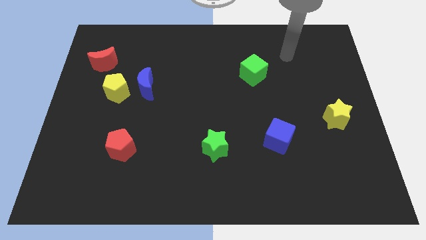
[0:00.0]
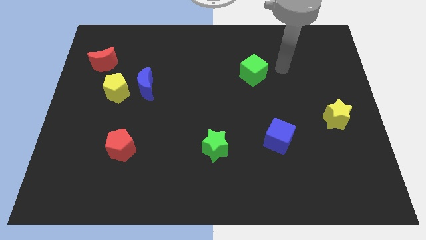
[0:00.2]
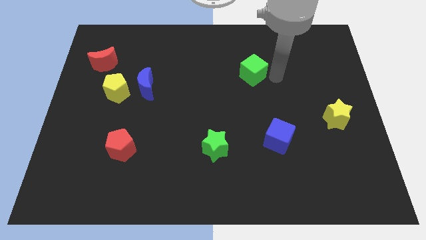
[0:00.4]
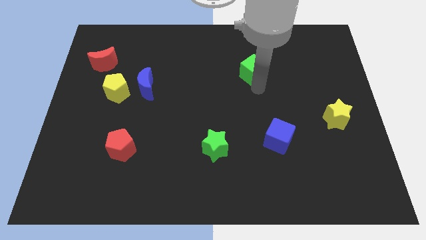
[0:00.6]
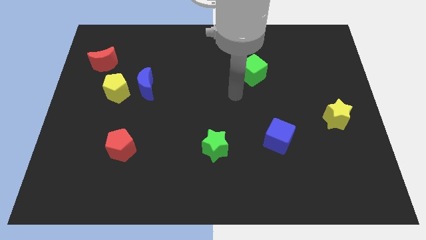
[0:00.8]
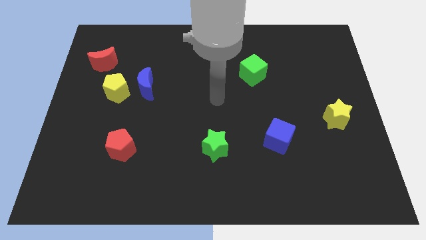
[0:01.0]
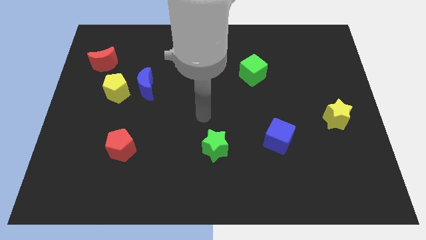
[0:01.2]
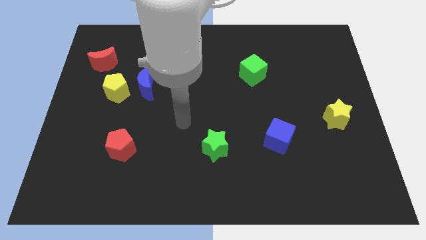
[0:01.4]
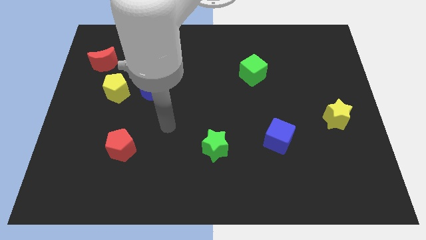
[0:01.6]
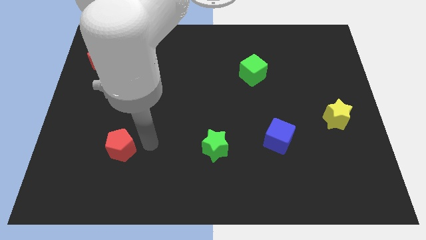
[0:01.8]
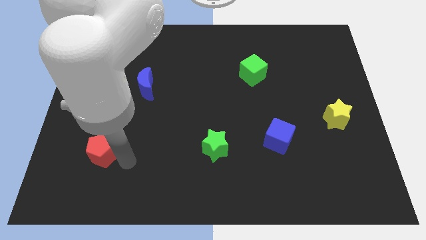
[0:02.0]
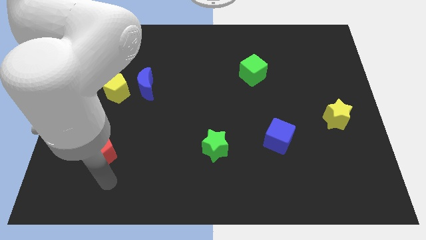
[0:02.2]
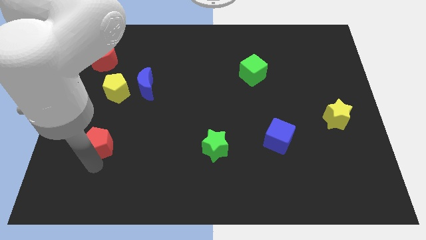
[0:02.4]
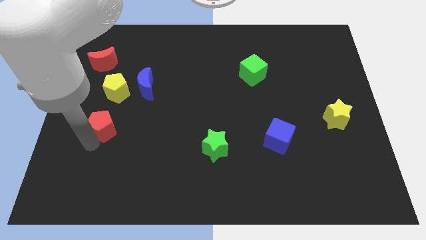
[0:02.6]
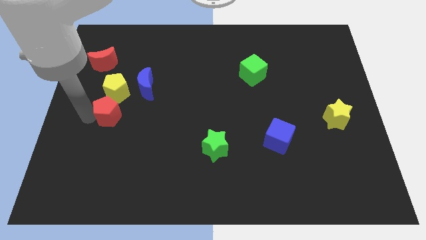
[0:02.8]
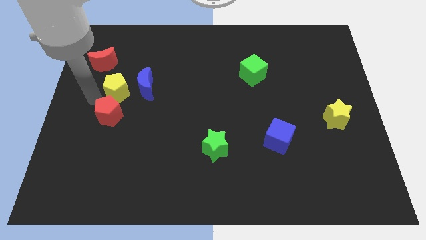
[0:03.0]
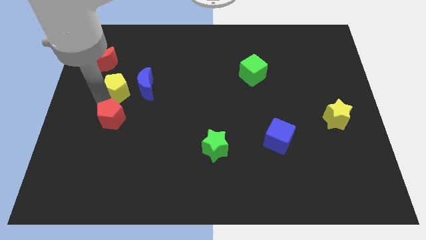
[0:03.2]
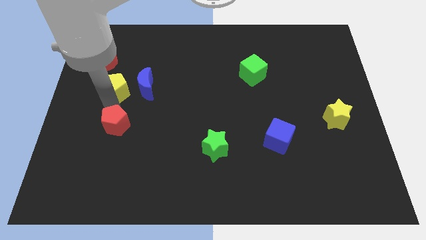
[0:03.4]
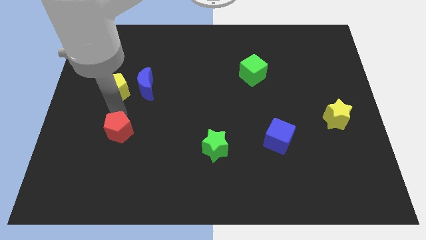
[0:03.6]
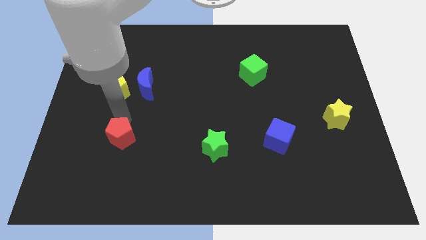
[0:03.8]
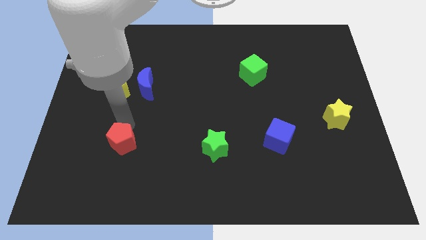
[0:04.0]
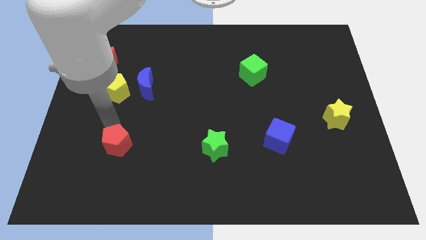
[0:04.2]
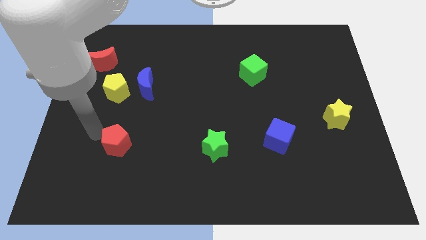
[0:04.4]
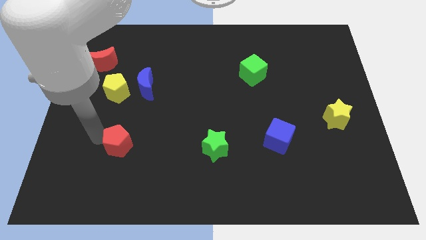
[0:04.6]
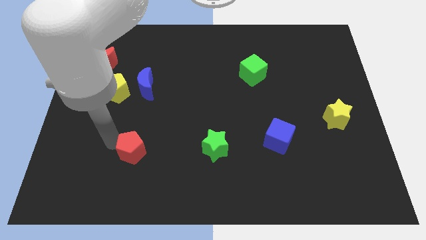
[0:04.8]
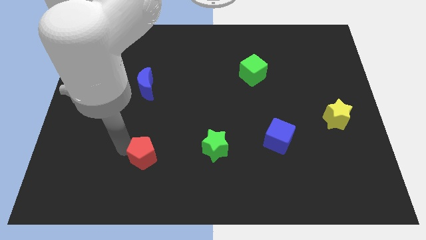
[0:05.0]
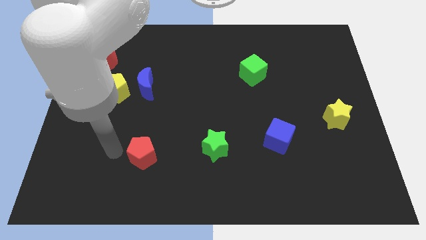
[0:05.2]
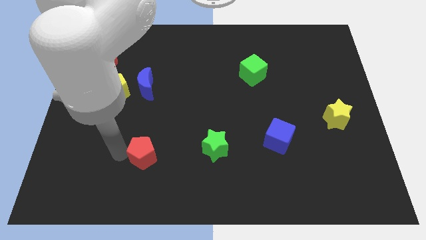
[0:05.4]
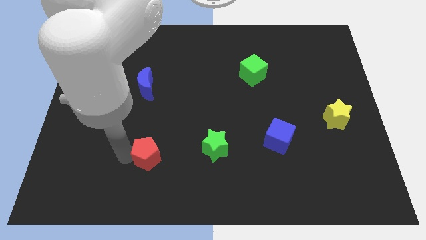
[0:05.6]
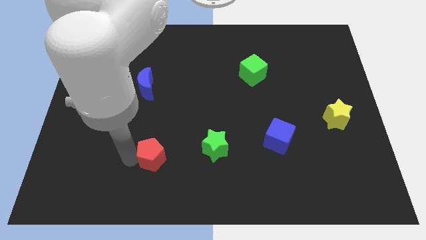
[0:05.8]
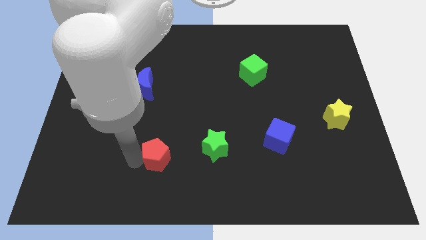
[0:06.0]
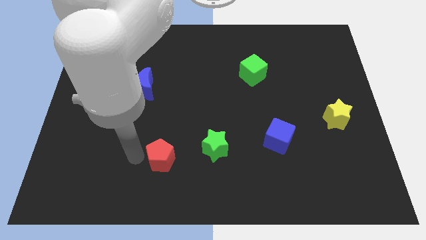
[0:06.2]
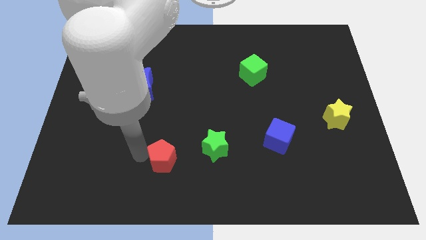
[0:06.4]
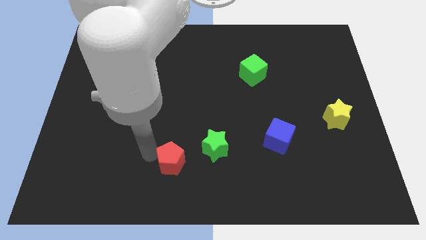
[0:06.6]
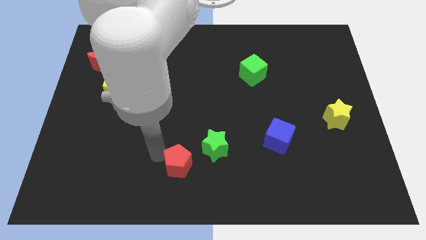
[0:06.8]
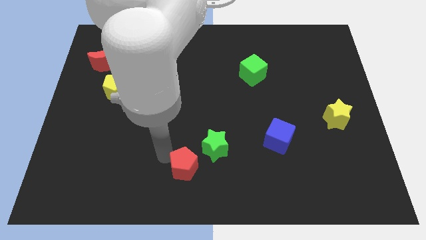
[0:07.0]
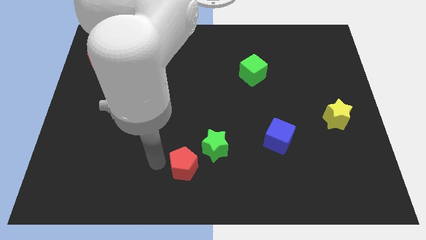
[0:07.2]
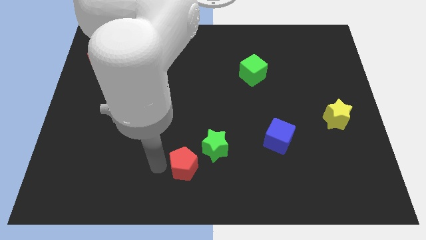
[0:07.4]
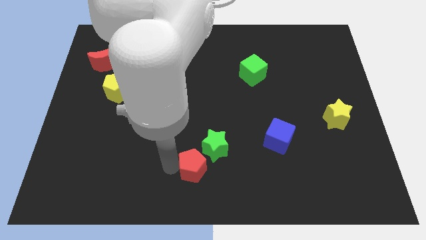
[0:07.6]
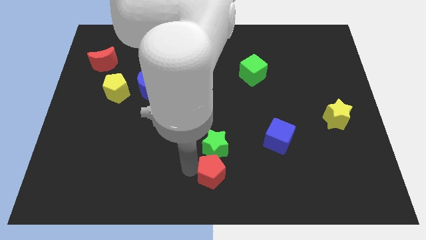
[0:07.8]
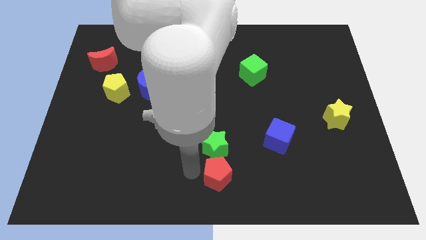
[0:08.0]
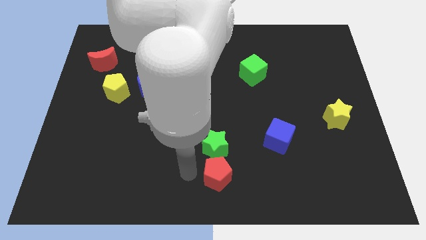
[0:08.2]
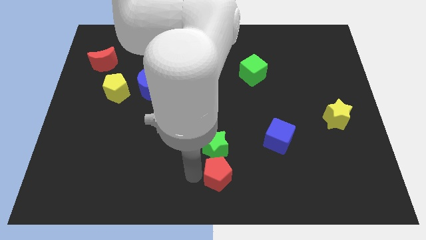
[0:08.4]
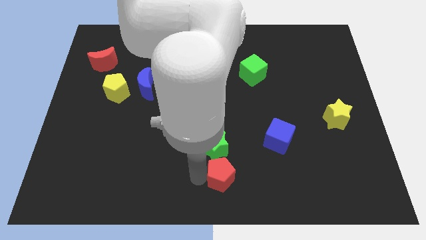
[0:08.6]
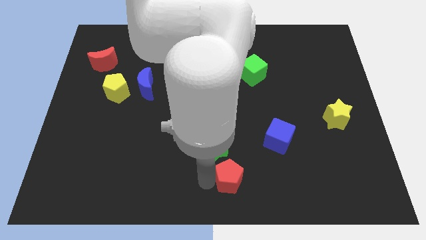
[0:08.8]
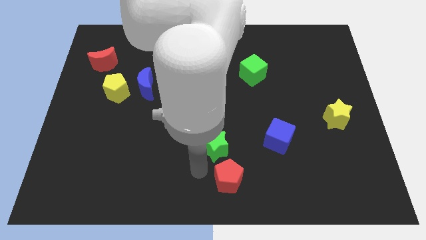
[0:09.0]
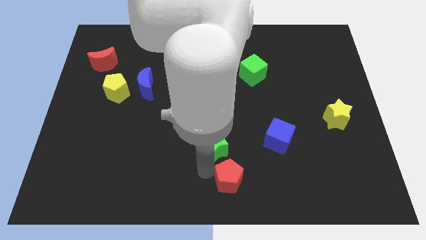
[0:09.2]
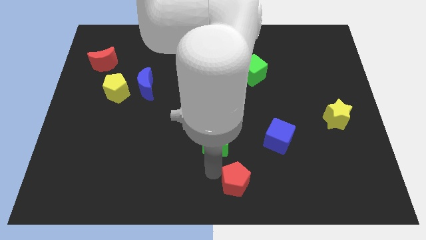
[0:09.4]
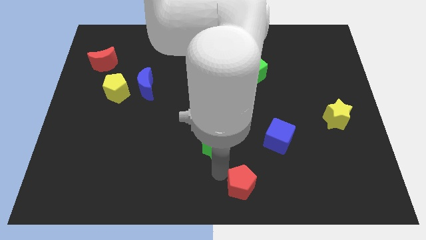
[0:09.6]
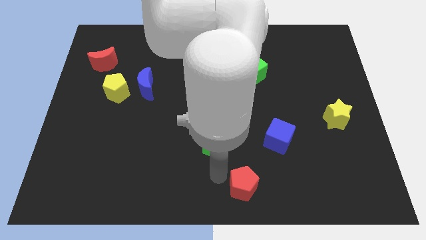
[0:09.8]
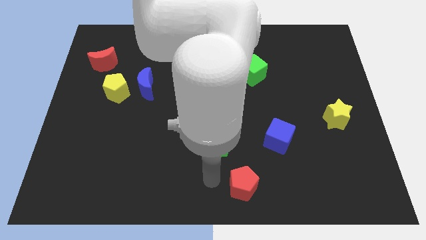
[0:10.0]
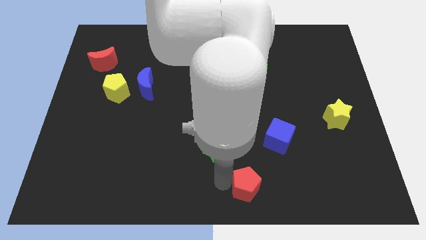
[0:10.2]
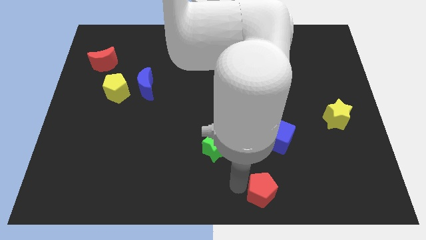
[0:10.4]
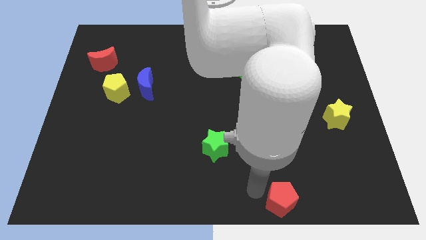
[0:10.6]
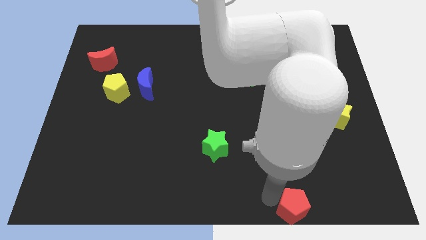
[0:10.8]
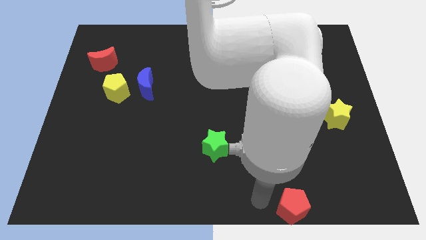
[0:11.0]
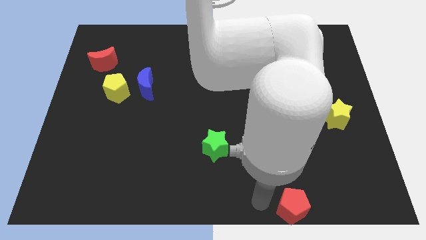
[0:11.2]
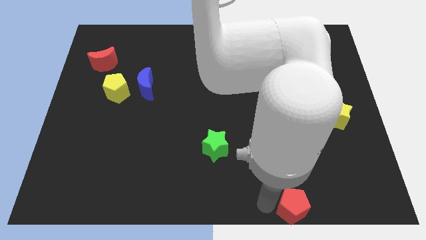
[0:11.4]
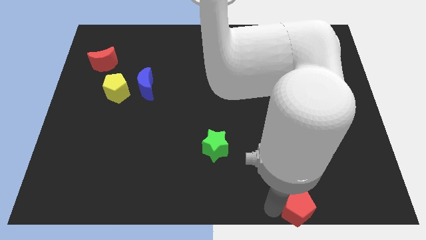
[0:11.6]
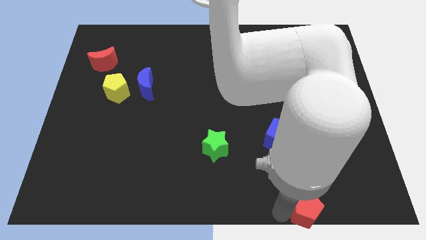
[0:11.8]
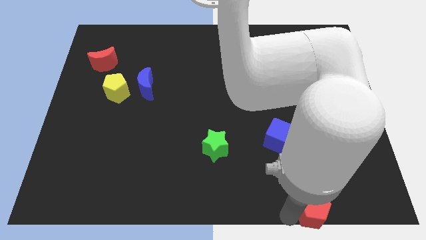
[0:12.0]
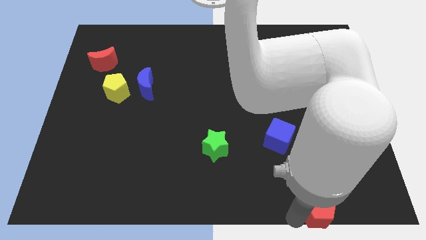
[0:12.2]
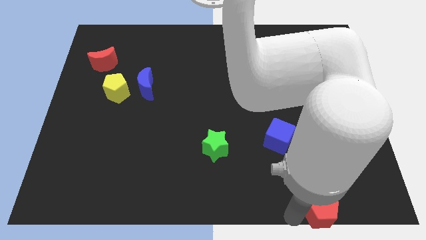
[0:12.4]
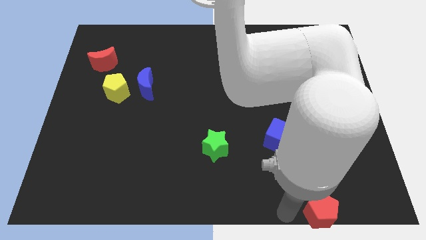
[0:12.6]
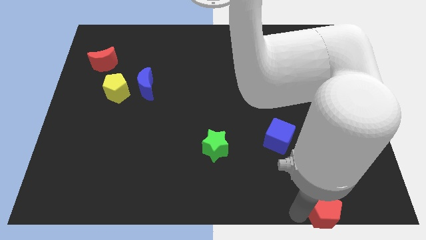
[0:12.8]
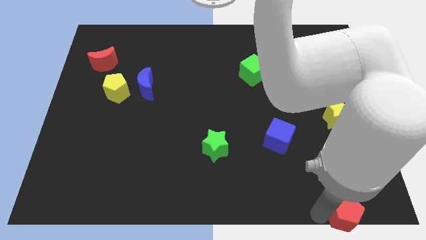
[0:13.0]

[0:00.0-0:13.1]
push the red pentagon to the bottom right corner
